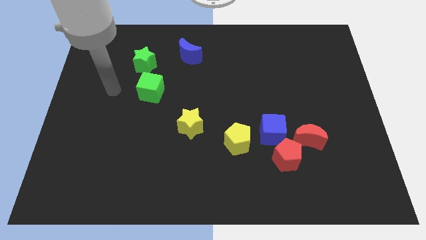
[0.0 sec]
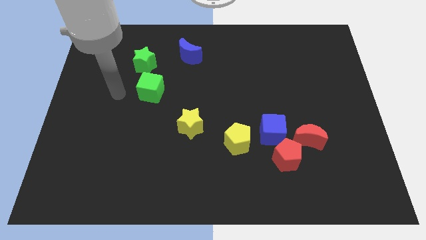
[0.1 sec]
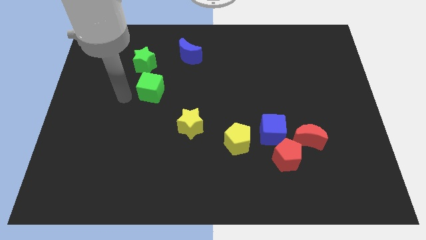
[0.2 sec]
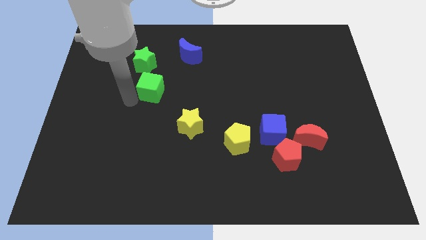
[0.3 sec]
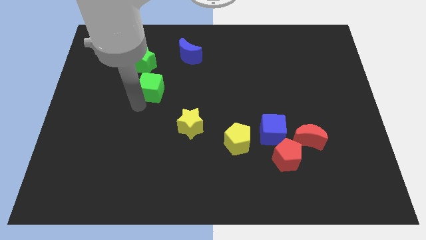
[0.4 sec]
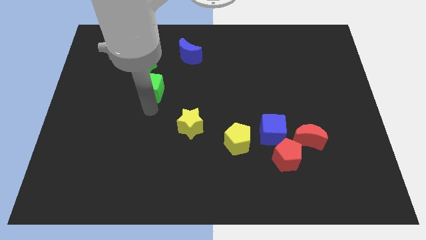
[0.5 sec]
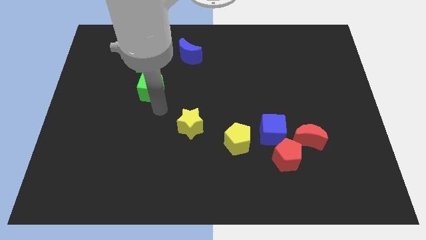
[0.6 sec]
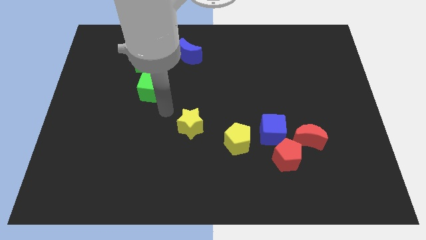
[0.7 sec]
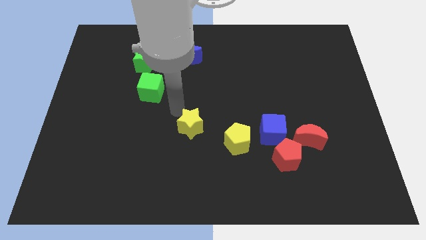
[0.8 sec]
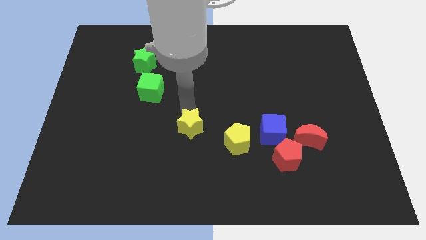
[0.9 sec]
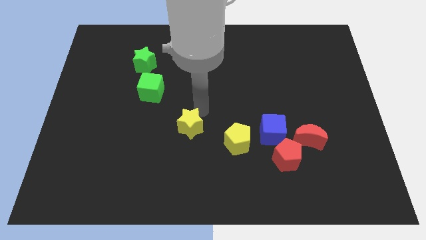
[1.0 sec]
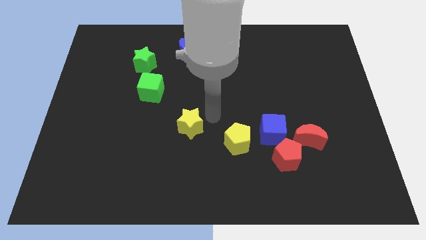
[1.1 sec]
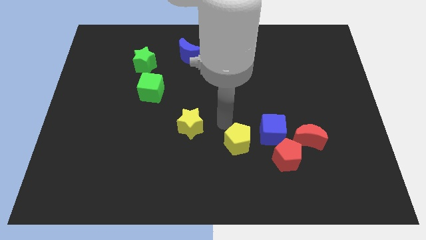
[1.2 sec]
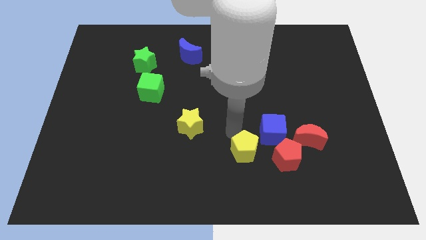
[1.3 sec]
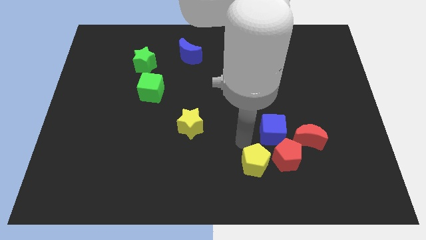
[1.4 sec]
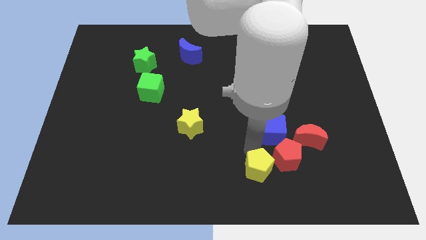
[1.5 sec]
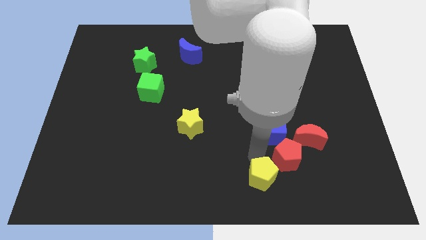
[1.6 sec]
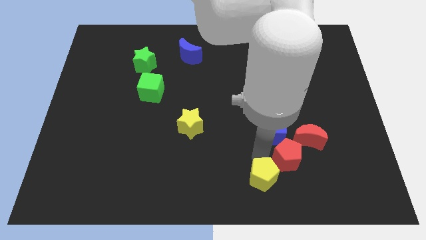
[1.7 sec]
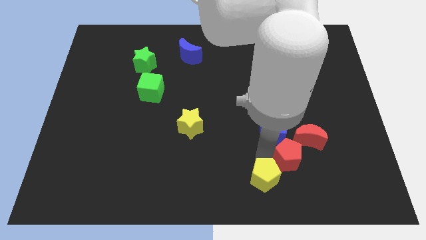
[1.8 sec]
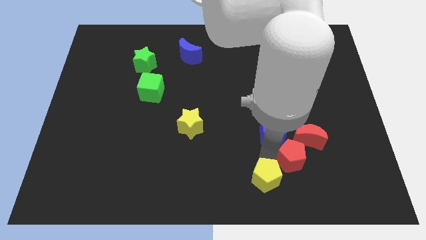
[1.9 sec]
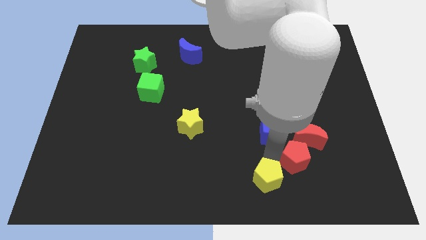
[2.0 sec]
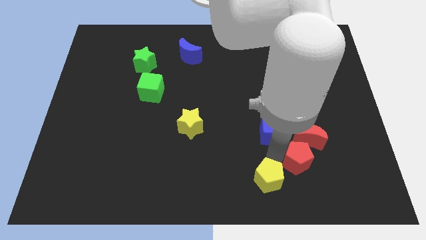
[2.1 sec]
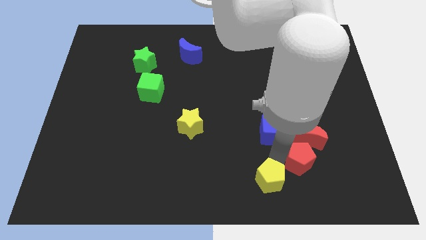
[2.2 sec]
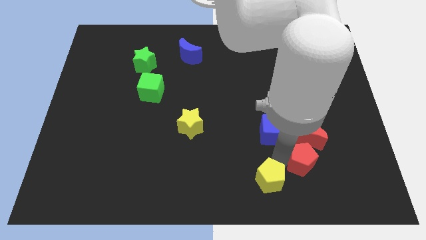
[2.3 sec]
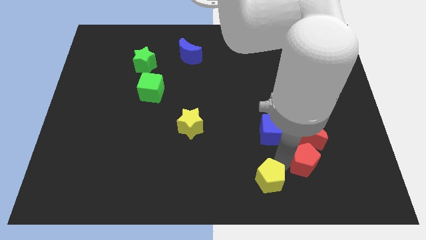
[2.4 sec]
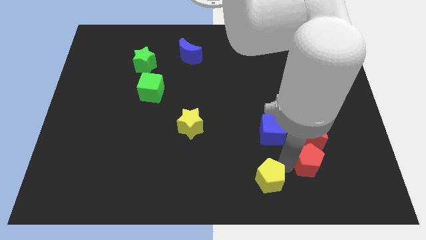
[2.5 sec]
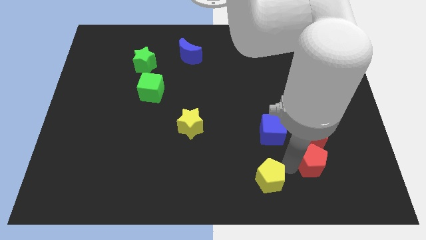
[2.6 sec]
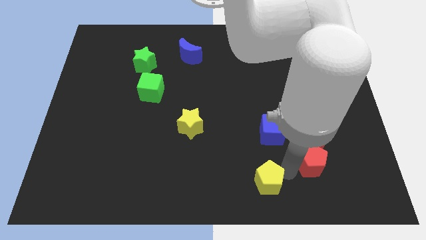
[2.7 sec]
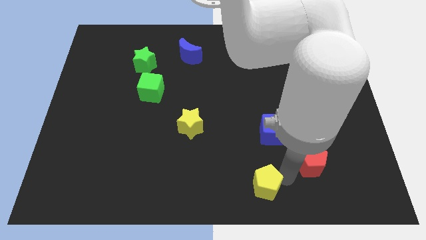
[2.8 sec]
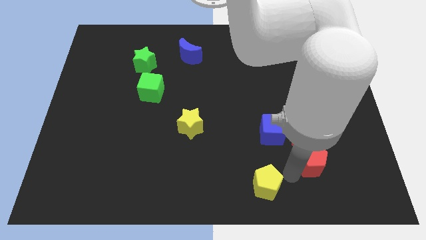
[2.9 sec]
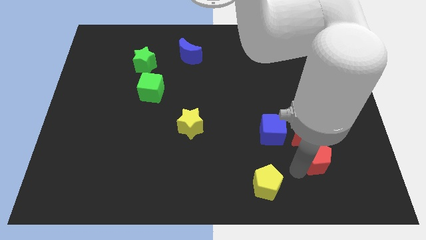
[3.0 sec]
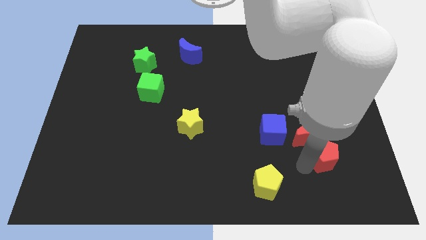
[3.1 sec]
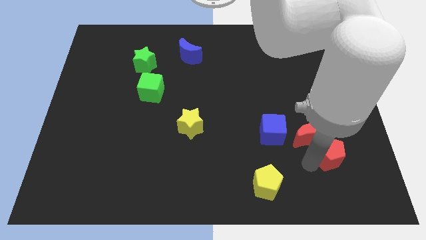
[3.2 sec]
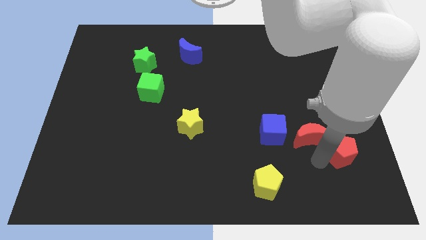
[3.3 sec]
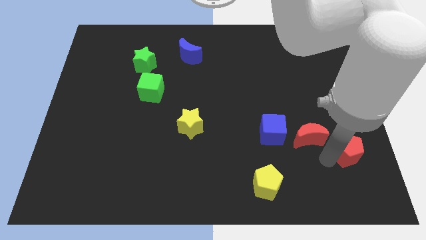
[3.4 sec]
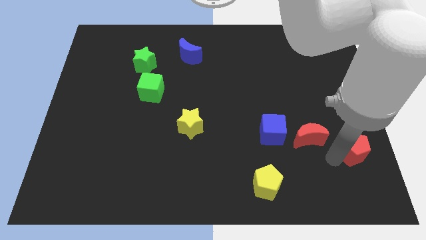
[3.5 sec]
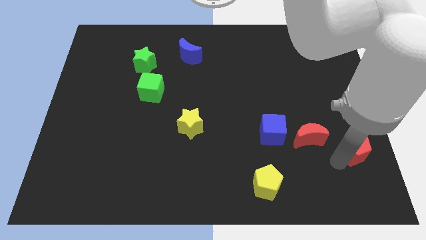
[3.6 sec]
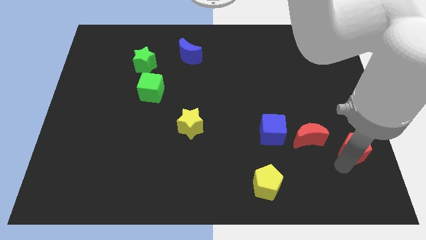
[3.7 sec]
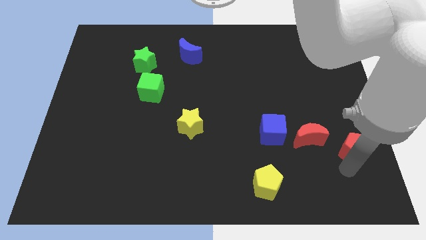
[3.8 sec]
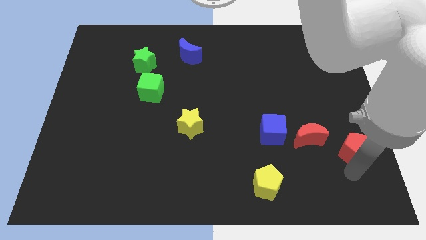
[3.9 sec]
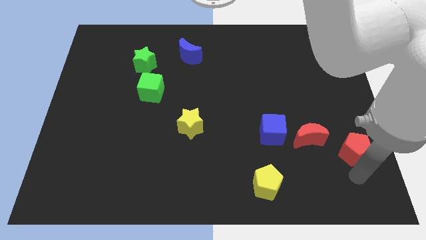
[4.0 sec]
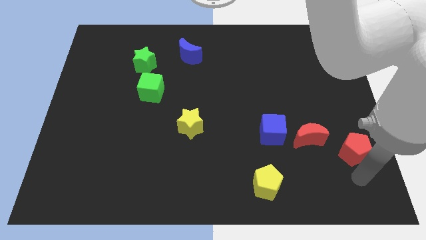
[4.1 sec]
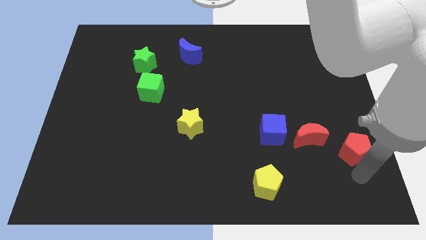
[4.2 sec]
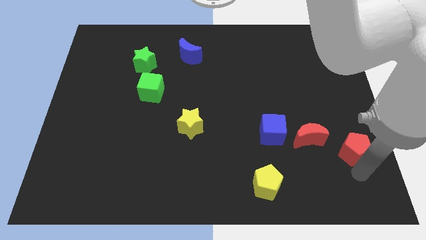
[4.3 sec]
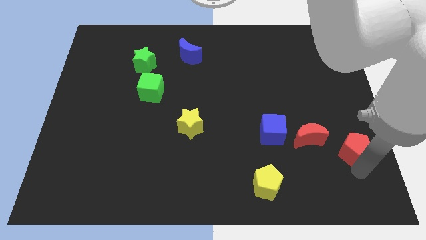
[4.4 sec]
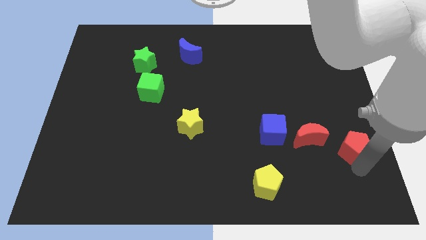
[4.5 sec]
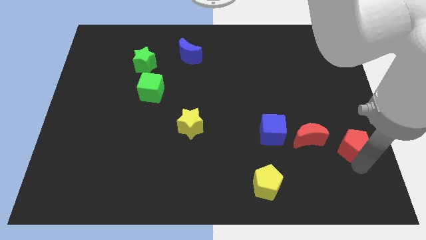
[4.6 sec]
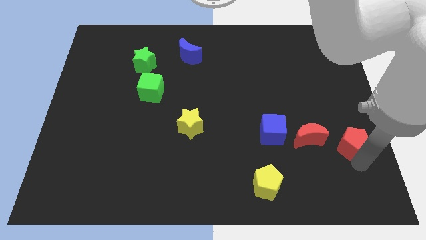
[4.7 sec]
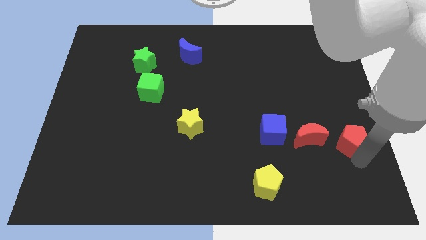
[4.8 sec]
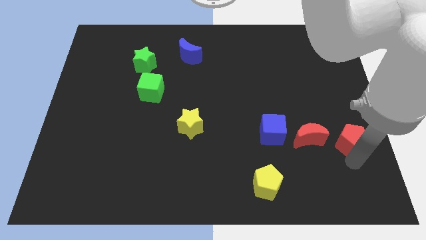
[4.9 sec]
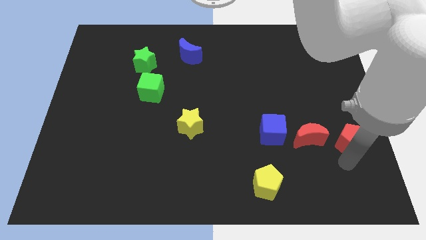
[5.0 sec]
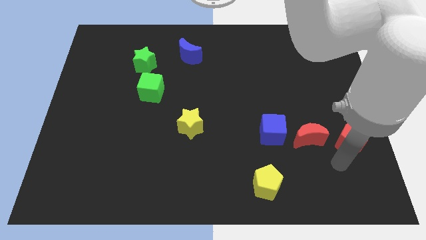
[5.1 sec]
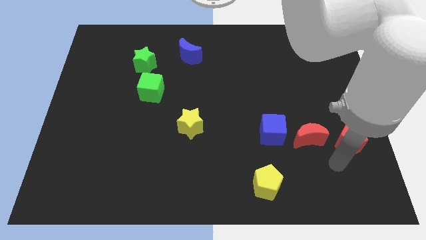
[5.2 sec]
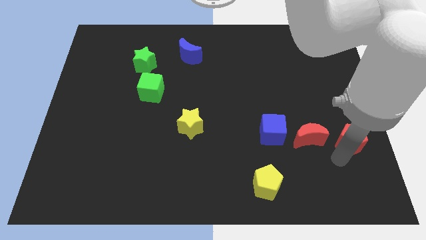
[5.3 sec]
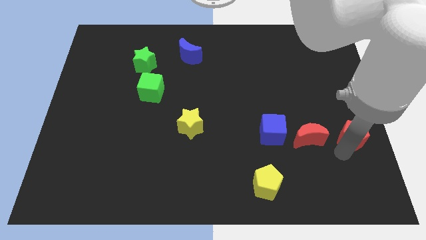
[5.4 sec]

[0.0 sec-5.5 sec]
move the red pentagon to the right side

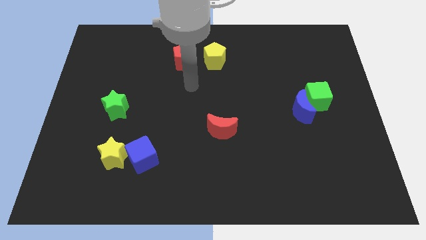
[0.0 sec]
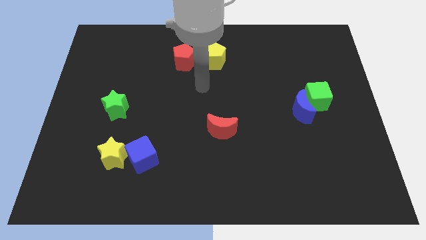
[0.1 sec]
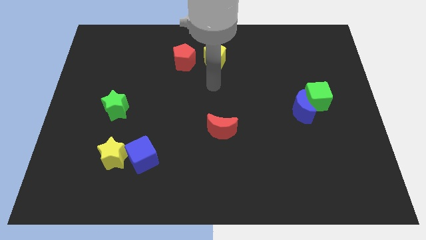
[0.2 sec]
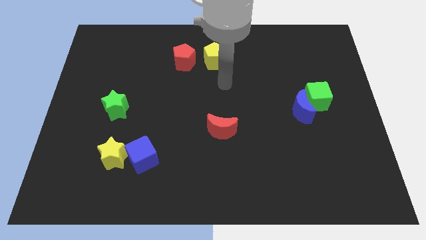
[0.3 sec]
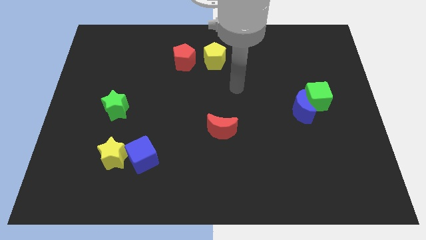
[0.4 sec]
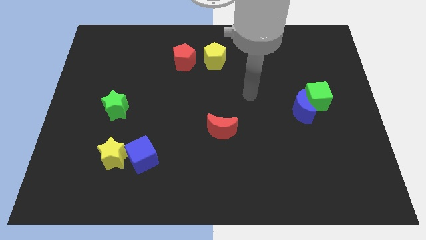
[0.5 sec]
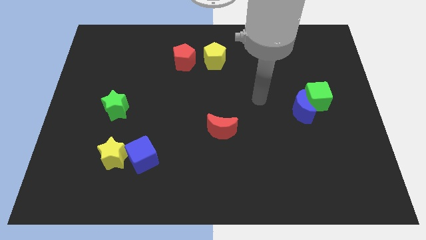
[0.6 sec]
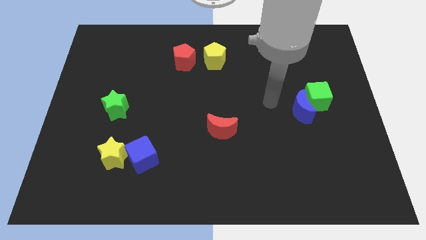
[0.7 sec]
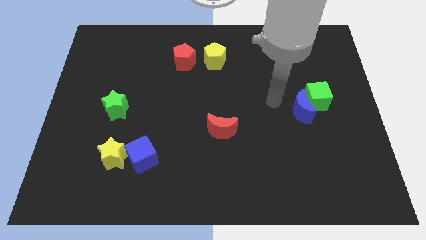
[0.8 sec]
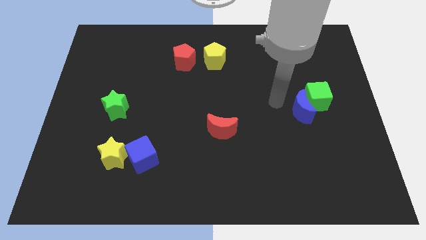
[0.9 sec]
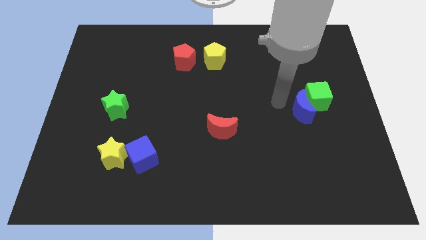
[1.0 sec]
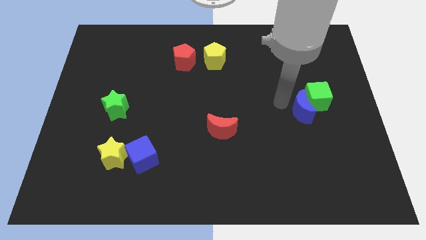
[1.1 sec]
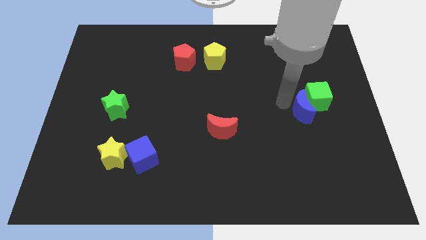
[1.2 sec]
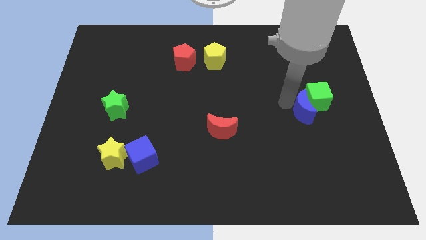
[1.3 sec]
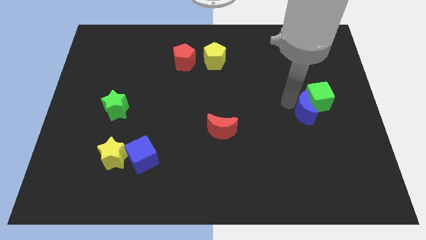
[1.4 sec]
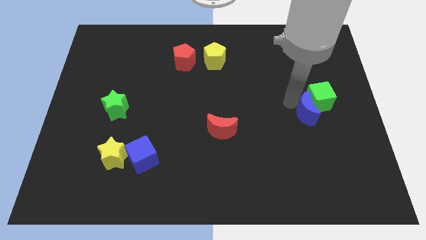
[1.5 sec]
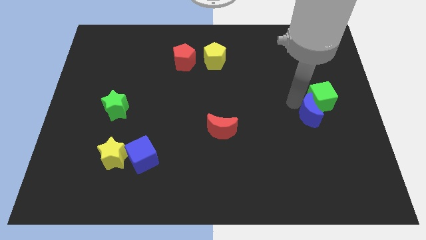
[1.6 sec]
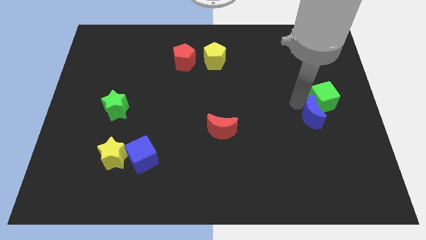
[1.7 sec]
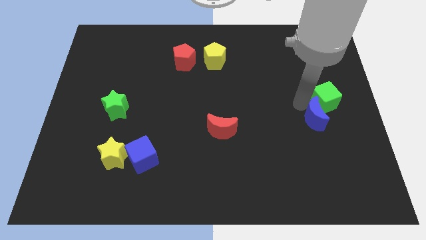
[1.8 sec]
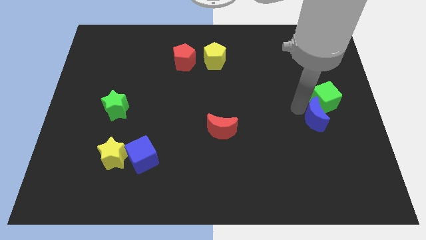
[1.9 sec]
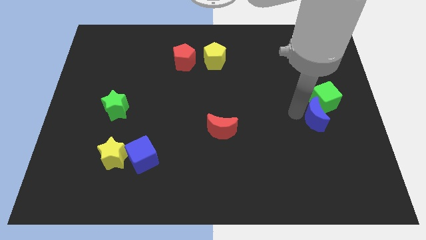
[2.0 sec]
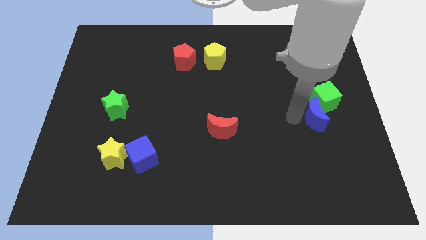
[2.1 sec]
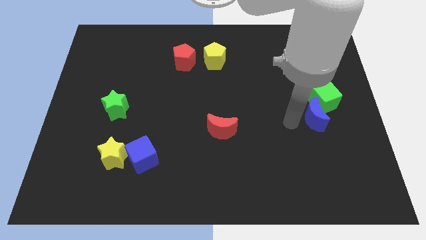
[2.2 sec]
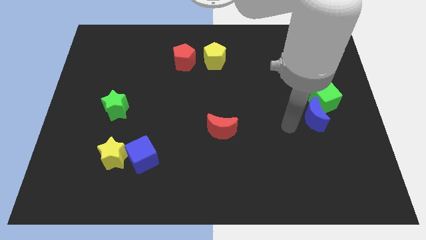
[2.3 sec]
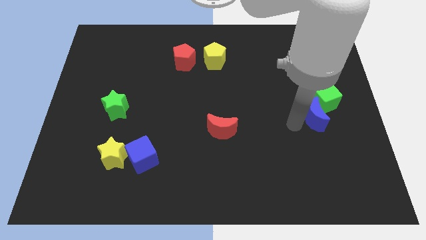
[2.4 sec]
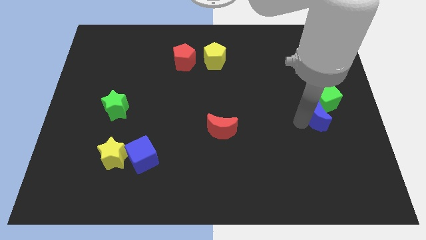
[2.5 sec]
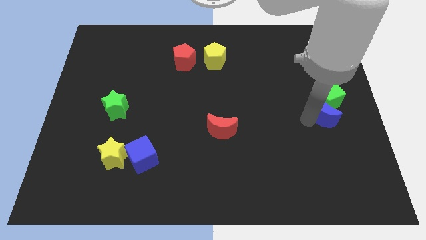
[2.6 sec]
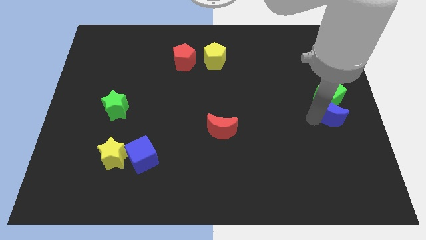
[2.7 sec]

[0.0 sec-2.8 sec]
push the blue moon to the center right
